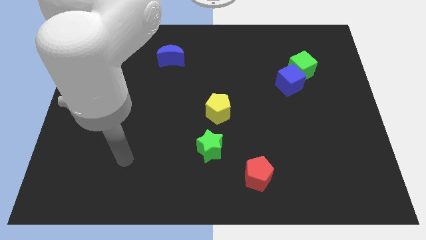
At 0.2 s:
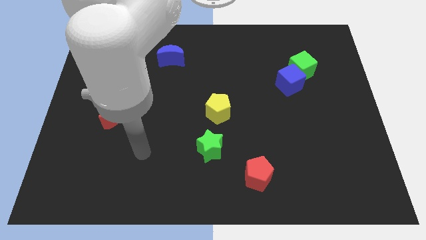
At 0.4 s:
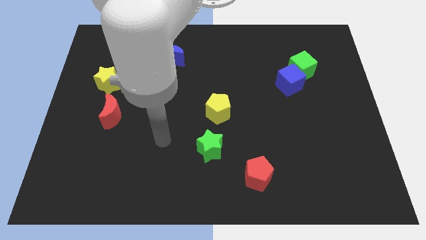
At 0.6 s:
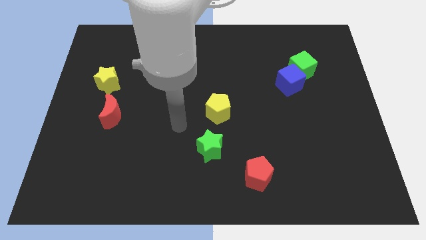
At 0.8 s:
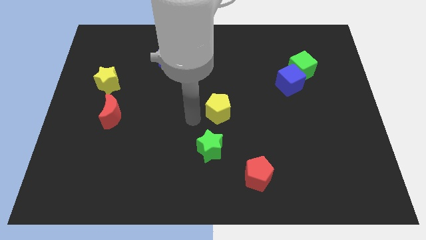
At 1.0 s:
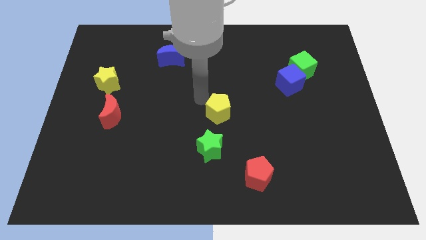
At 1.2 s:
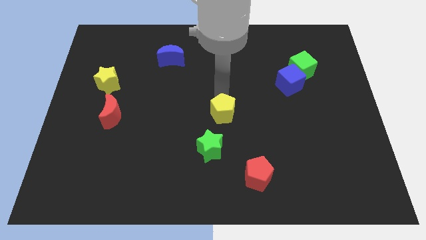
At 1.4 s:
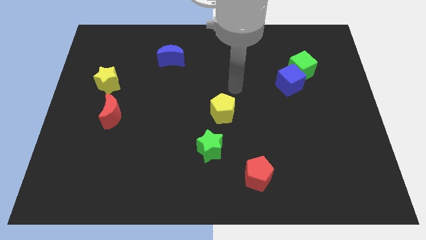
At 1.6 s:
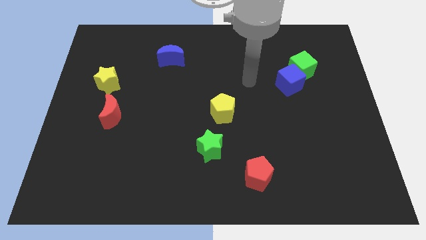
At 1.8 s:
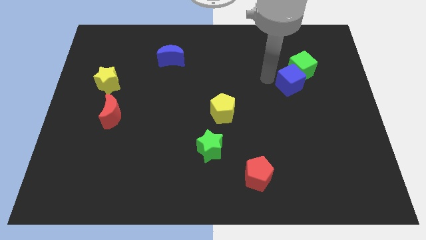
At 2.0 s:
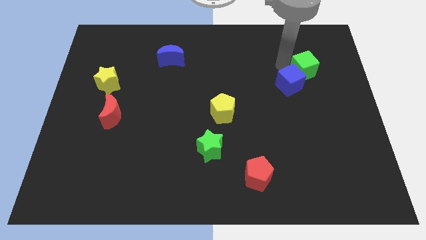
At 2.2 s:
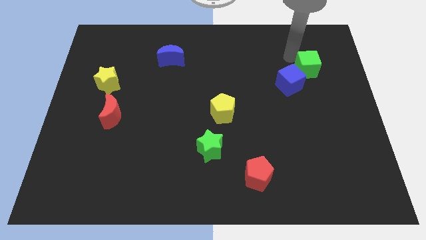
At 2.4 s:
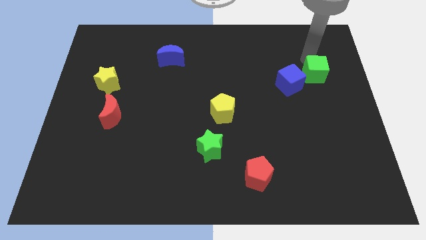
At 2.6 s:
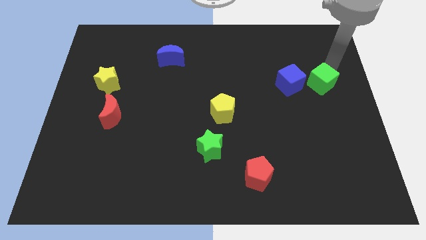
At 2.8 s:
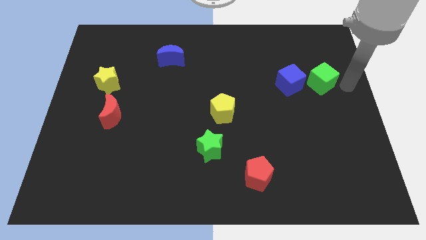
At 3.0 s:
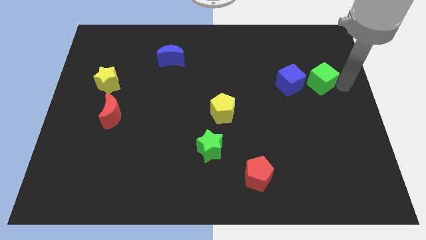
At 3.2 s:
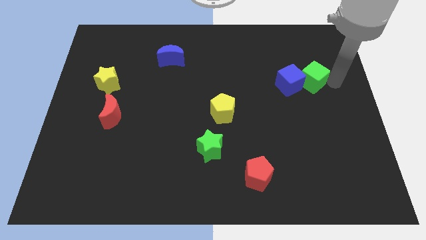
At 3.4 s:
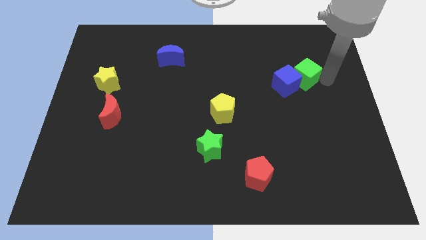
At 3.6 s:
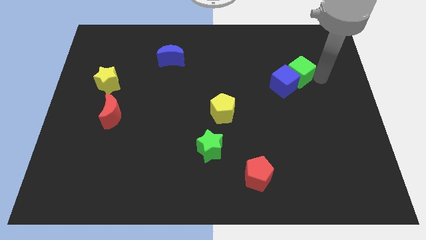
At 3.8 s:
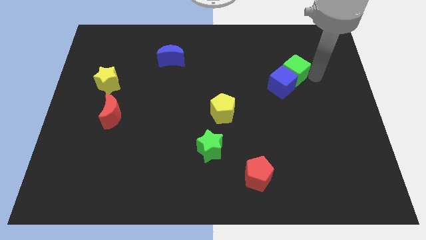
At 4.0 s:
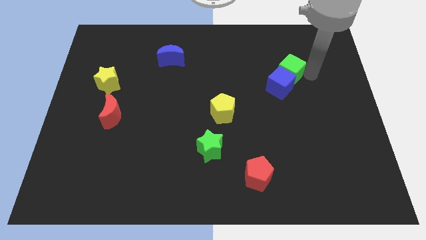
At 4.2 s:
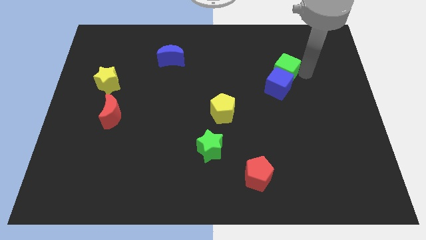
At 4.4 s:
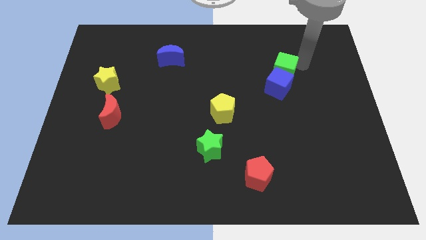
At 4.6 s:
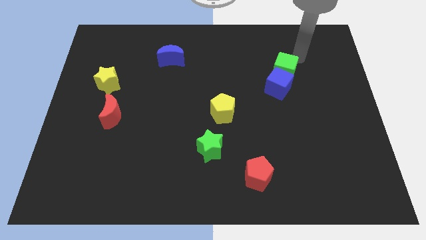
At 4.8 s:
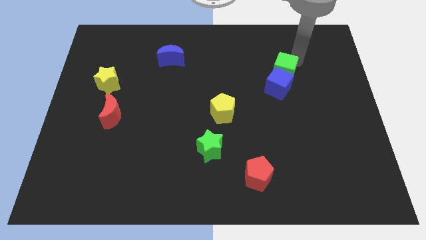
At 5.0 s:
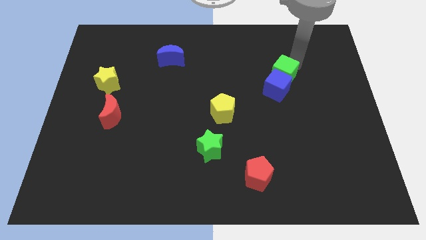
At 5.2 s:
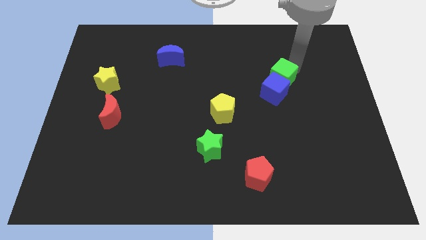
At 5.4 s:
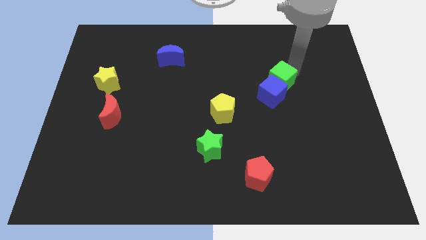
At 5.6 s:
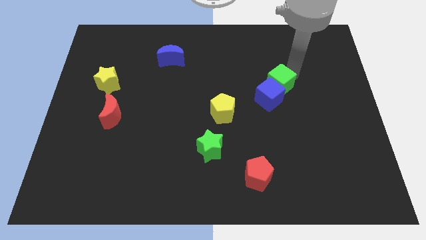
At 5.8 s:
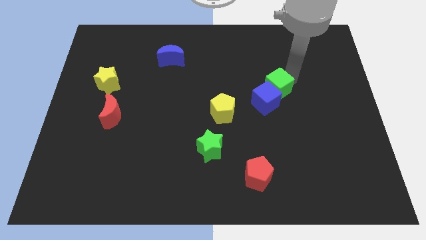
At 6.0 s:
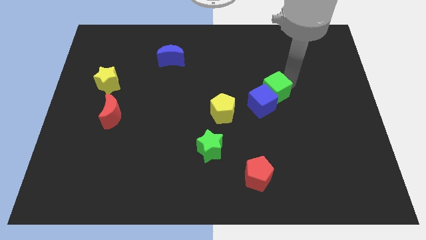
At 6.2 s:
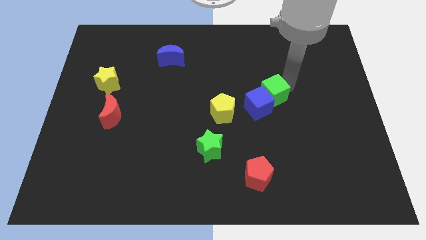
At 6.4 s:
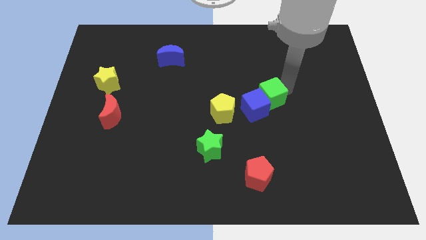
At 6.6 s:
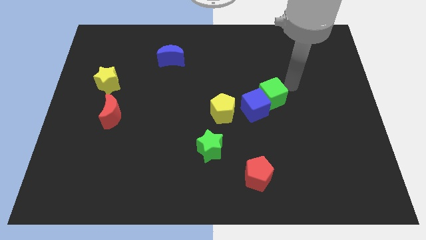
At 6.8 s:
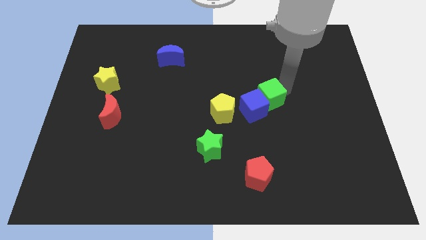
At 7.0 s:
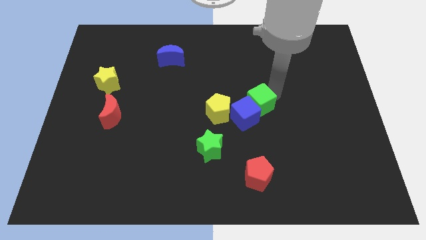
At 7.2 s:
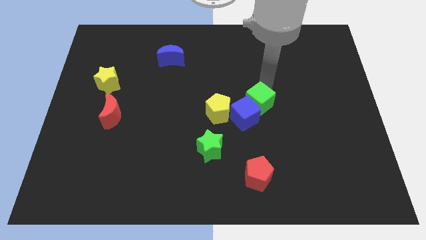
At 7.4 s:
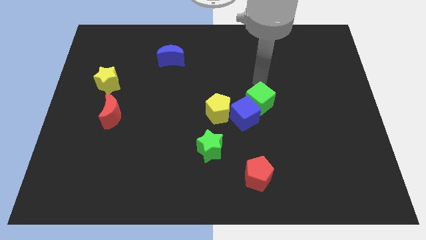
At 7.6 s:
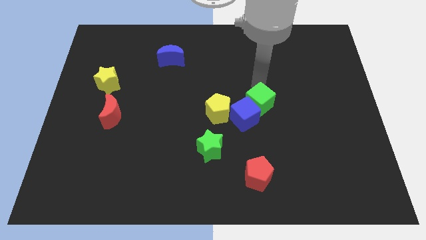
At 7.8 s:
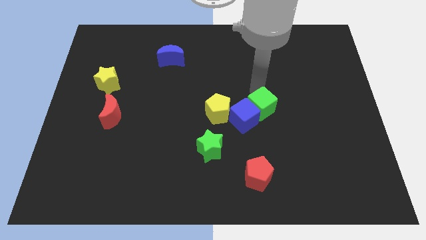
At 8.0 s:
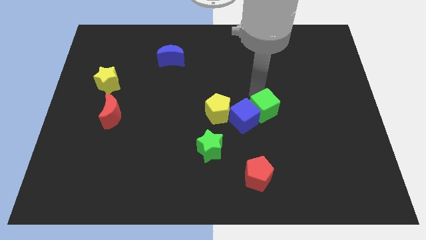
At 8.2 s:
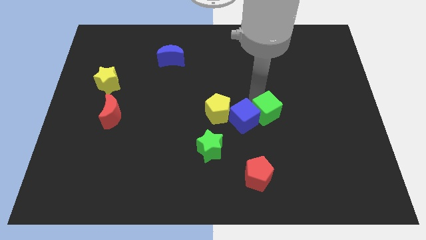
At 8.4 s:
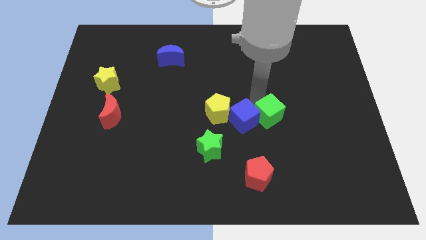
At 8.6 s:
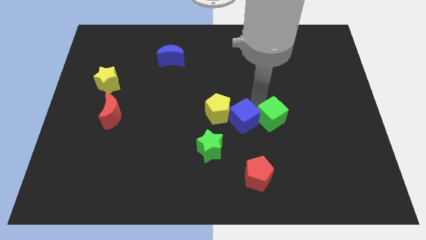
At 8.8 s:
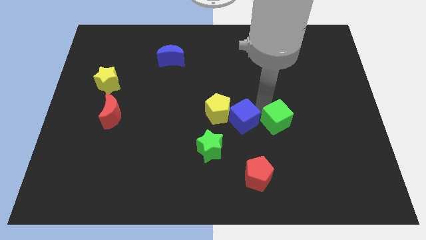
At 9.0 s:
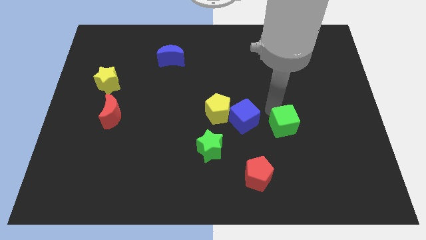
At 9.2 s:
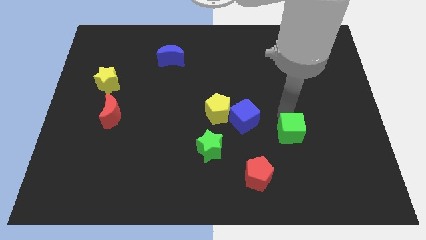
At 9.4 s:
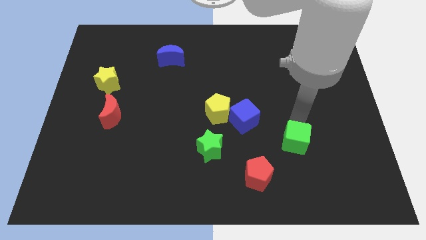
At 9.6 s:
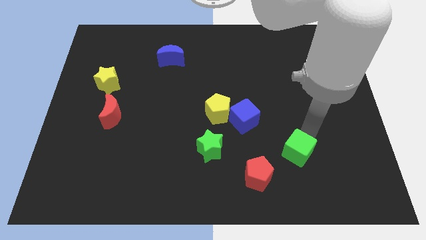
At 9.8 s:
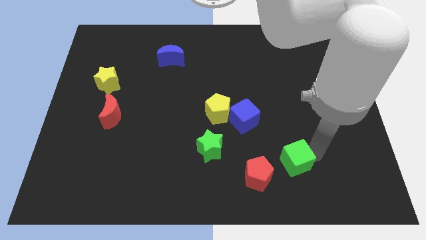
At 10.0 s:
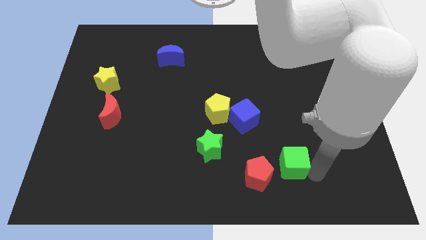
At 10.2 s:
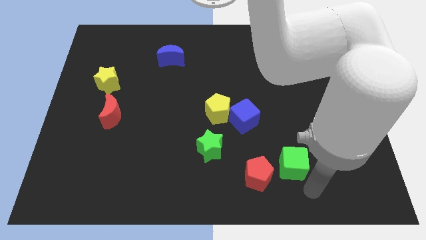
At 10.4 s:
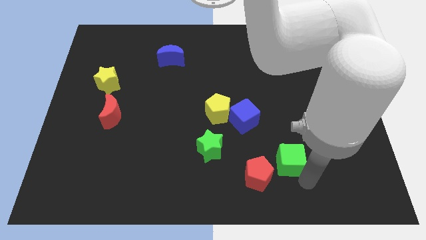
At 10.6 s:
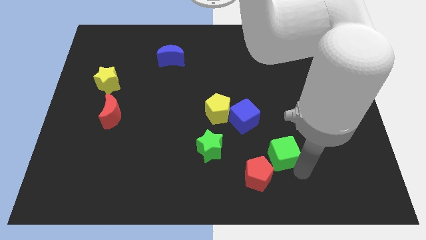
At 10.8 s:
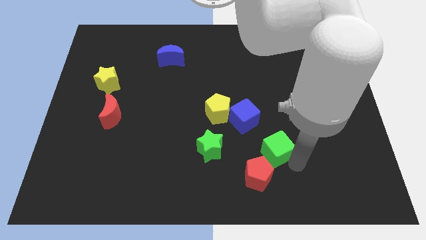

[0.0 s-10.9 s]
move the green cube above the red pentagon

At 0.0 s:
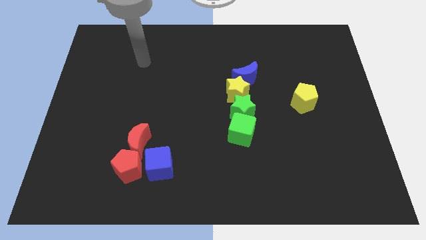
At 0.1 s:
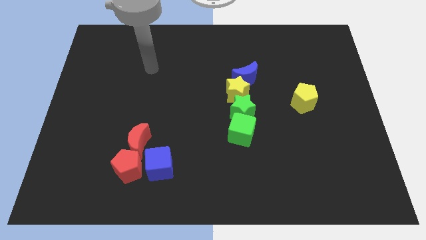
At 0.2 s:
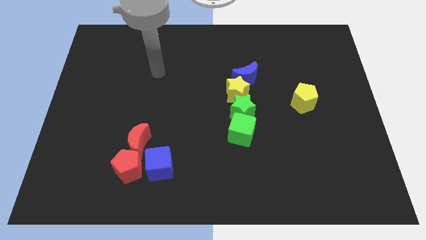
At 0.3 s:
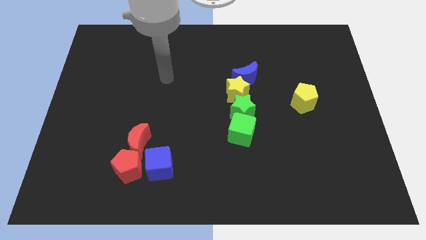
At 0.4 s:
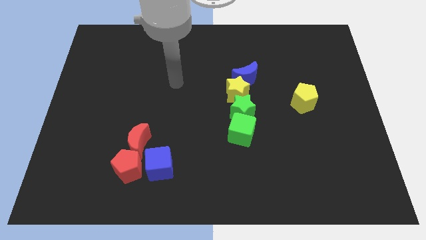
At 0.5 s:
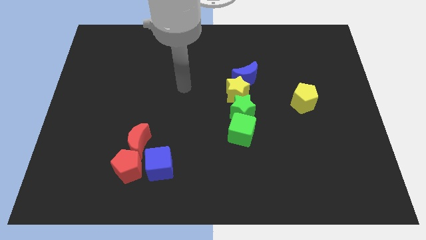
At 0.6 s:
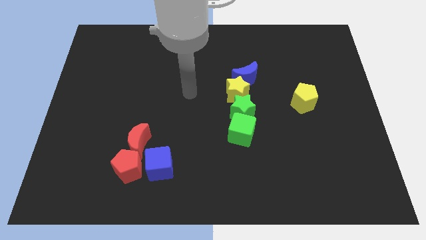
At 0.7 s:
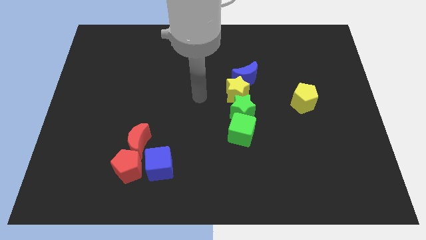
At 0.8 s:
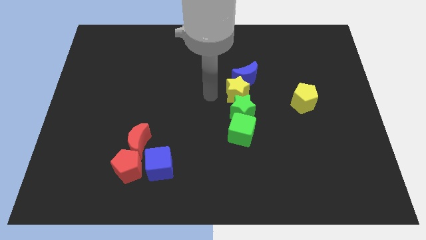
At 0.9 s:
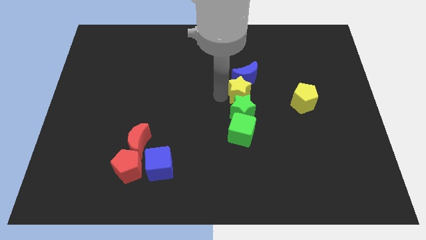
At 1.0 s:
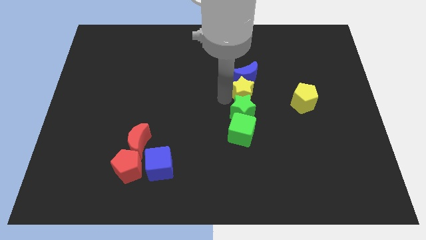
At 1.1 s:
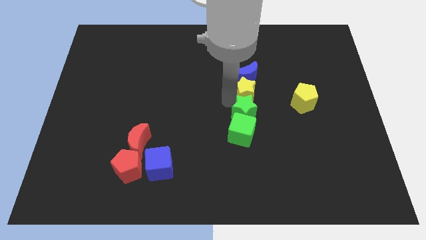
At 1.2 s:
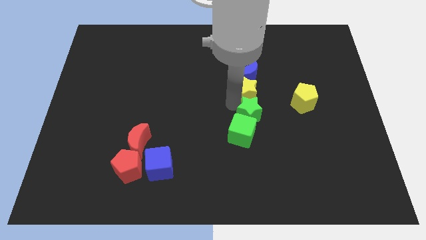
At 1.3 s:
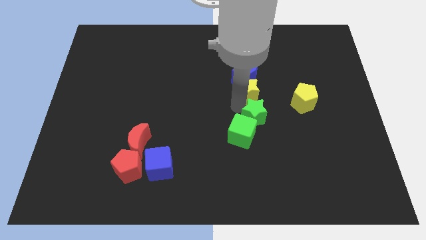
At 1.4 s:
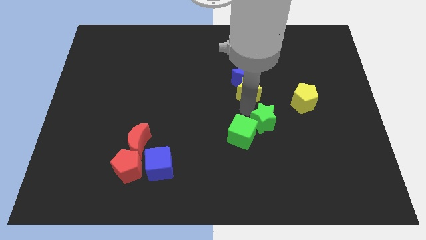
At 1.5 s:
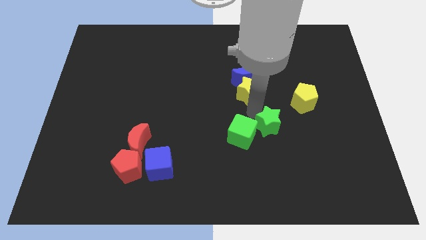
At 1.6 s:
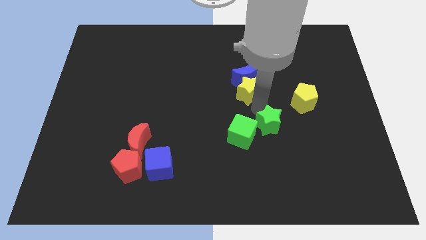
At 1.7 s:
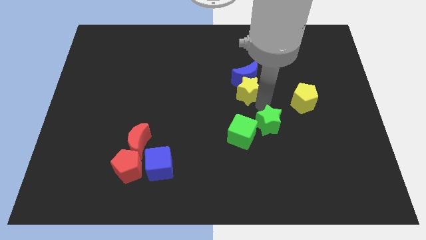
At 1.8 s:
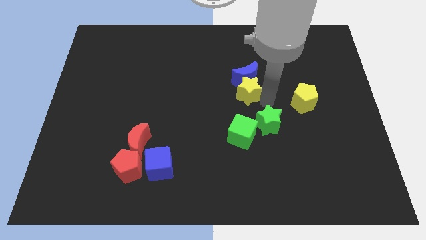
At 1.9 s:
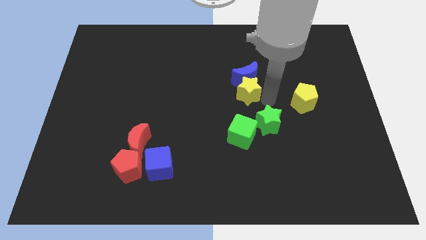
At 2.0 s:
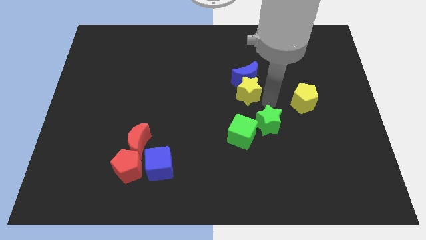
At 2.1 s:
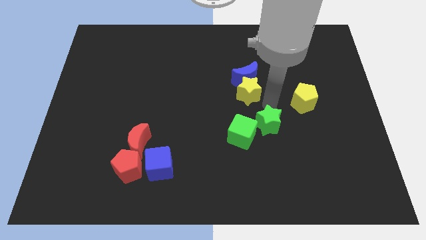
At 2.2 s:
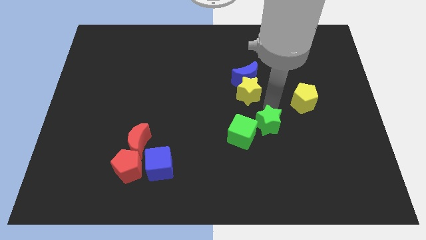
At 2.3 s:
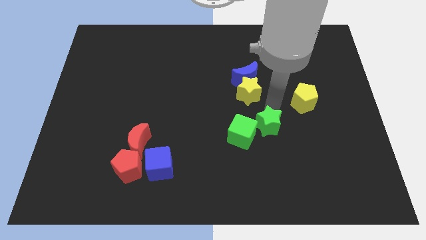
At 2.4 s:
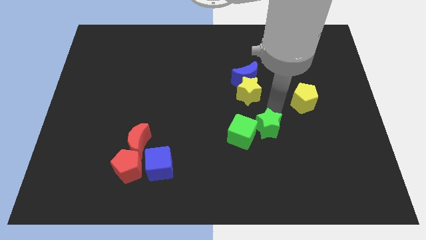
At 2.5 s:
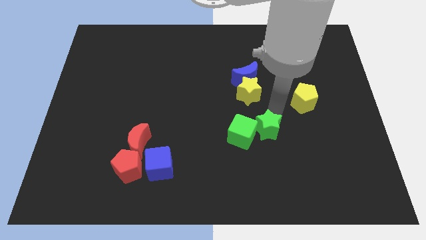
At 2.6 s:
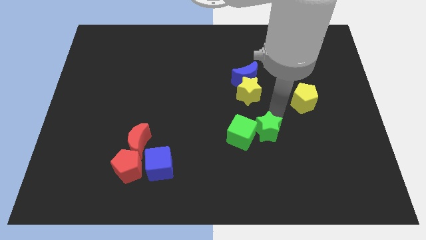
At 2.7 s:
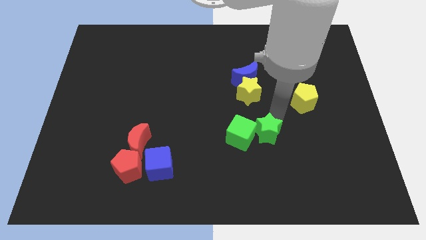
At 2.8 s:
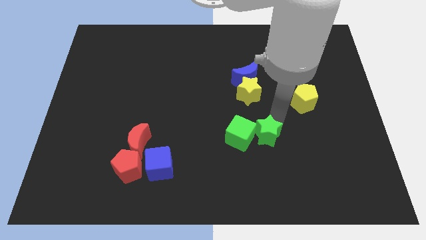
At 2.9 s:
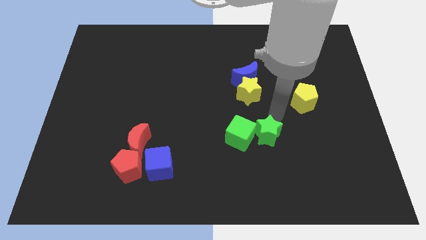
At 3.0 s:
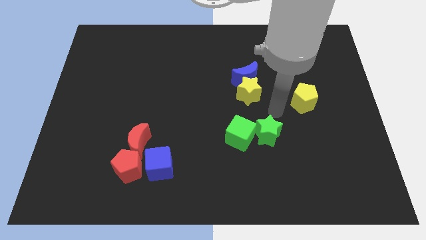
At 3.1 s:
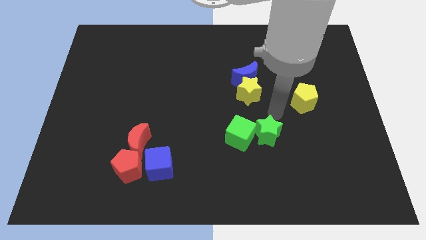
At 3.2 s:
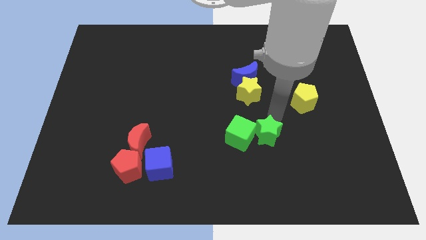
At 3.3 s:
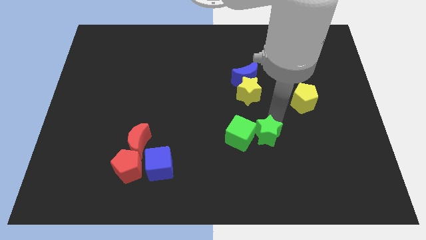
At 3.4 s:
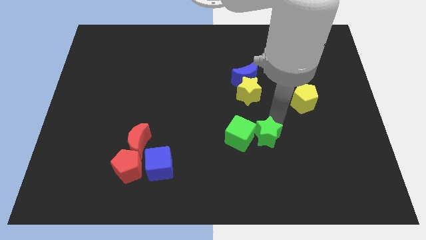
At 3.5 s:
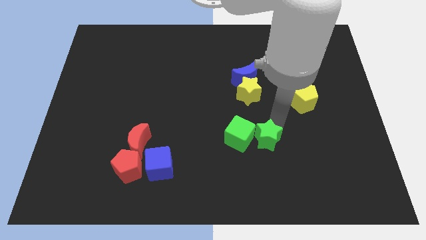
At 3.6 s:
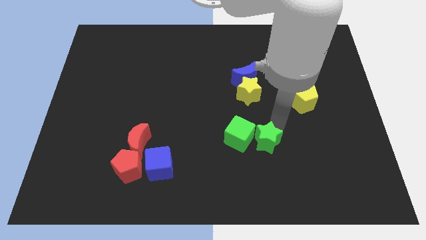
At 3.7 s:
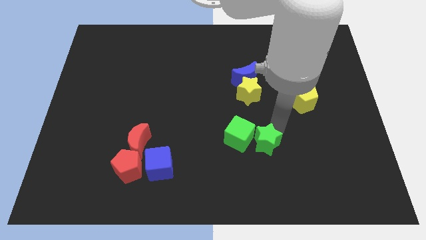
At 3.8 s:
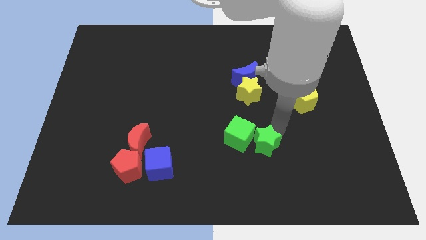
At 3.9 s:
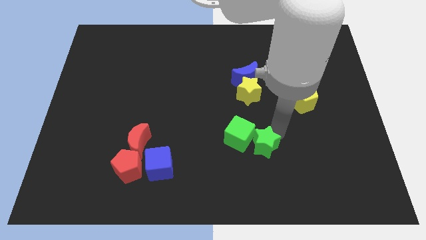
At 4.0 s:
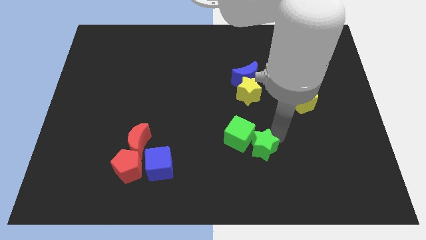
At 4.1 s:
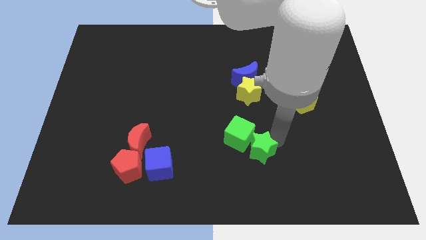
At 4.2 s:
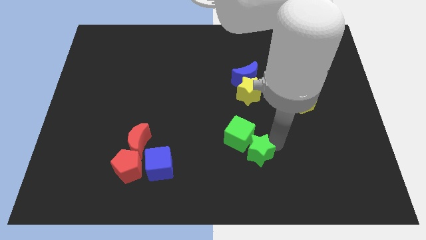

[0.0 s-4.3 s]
push the green star below the green cube
